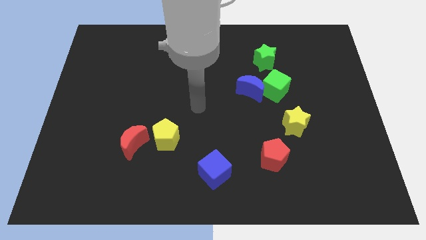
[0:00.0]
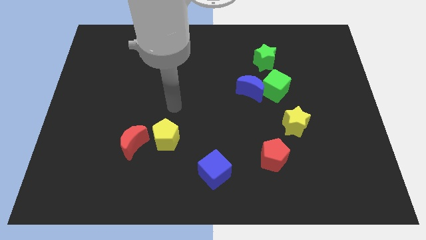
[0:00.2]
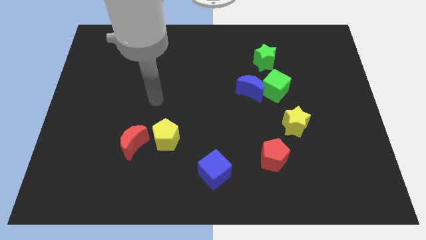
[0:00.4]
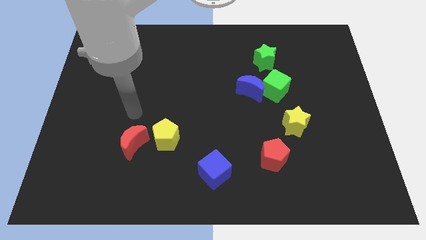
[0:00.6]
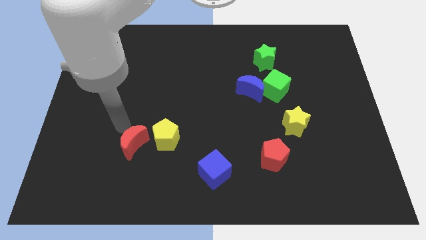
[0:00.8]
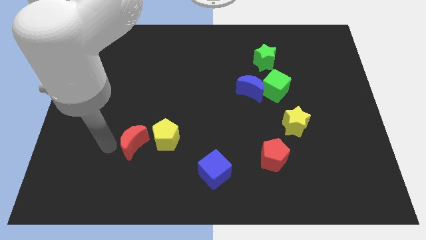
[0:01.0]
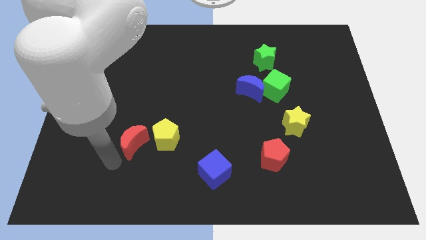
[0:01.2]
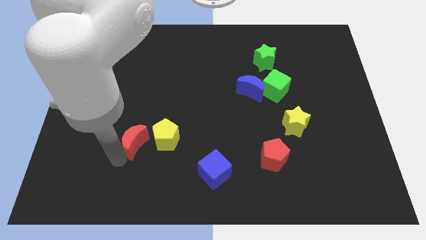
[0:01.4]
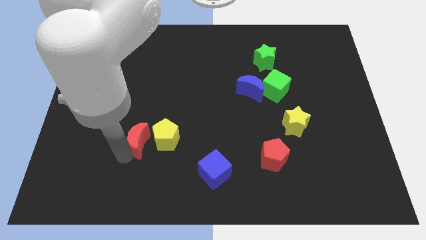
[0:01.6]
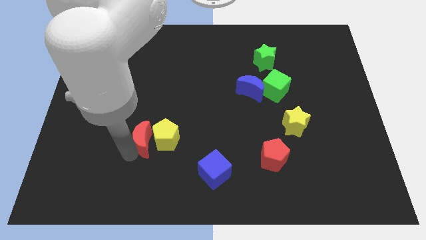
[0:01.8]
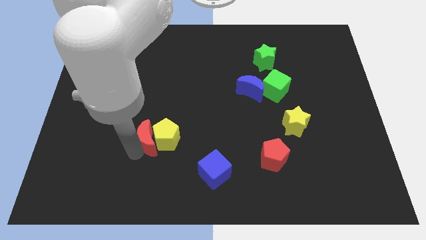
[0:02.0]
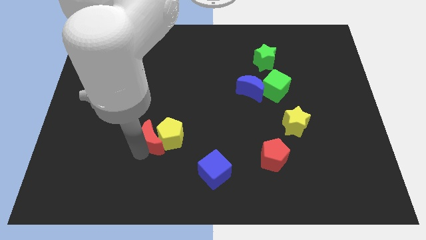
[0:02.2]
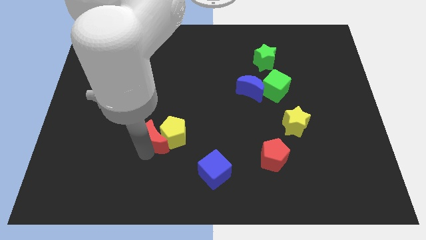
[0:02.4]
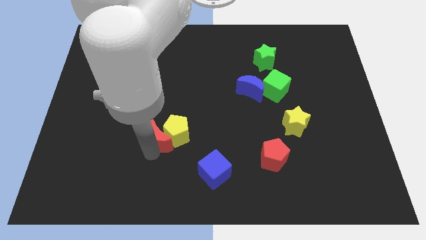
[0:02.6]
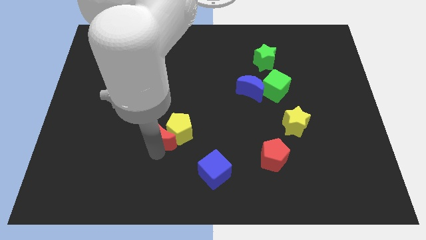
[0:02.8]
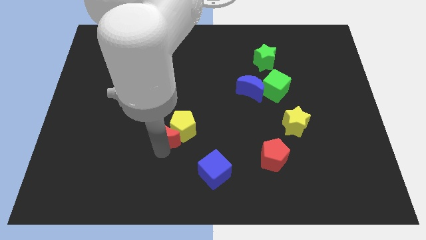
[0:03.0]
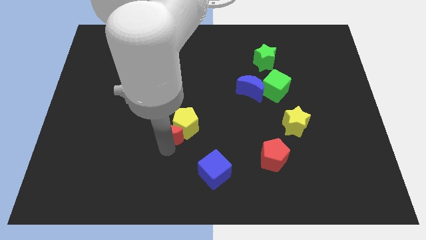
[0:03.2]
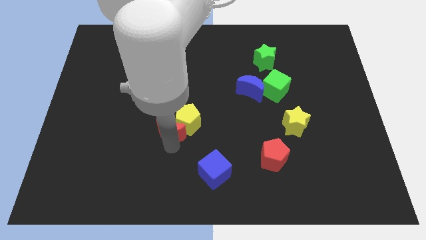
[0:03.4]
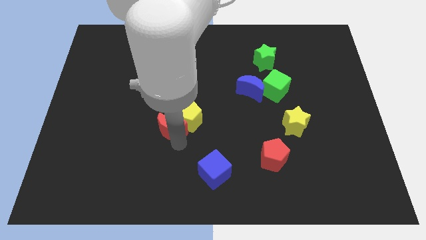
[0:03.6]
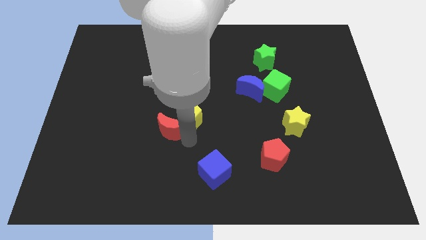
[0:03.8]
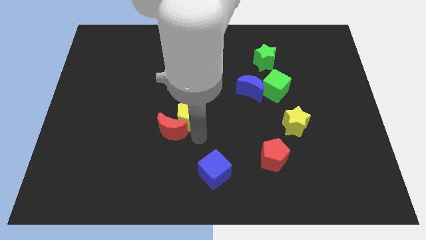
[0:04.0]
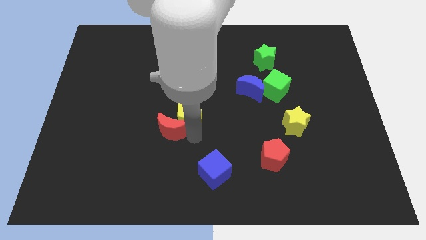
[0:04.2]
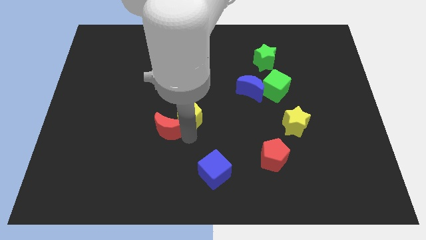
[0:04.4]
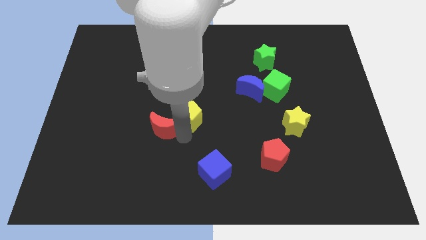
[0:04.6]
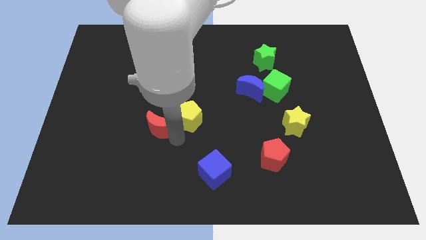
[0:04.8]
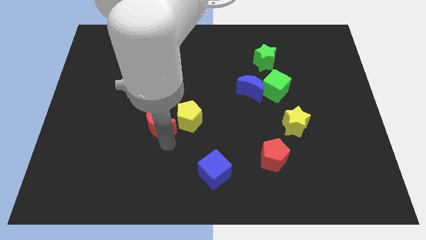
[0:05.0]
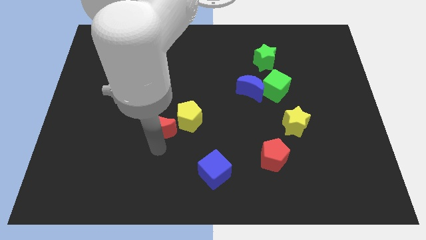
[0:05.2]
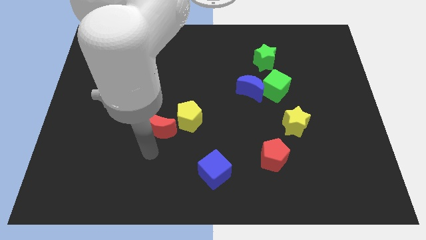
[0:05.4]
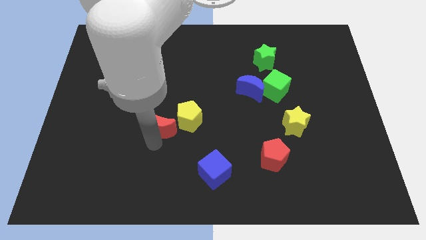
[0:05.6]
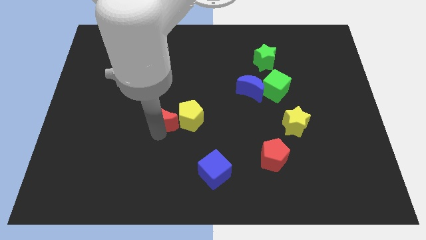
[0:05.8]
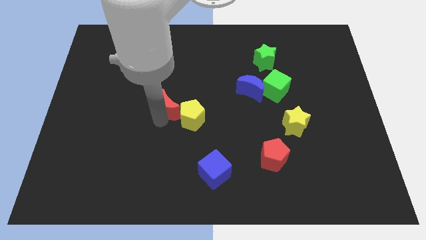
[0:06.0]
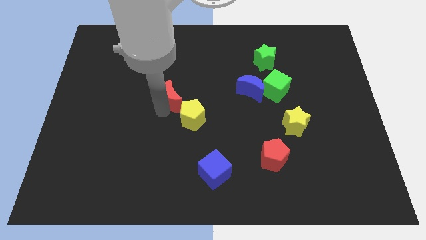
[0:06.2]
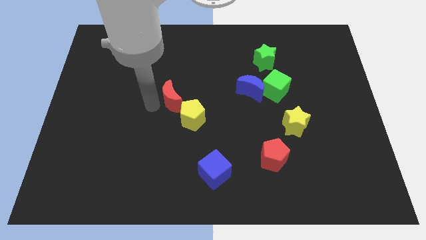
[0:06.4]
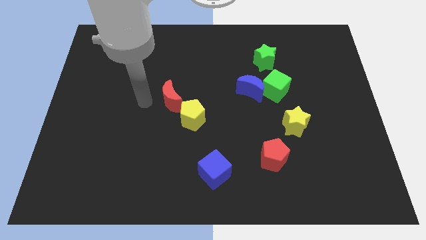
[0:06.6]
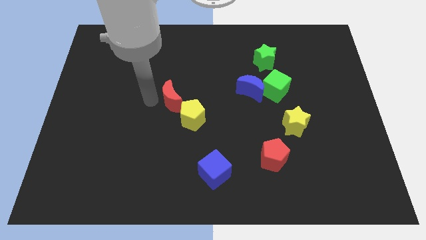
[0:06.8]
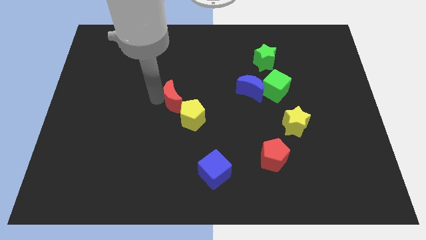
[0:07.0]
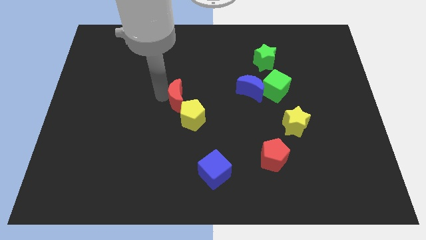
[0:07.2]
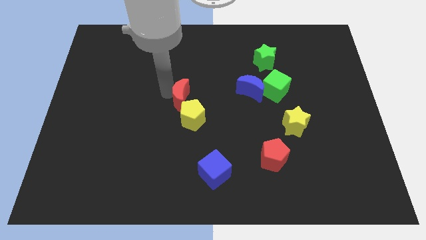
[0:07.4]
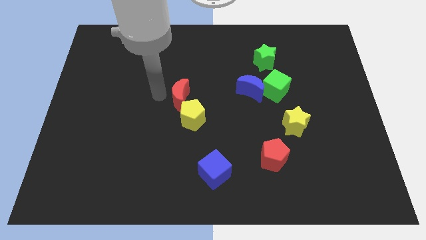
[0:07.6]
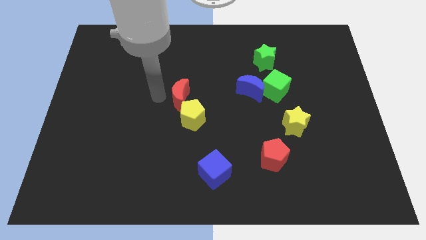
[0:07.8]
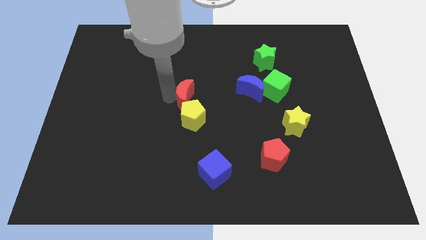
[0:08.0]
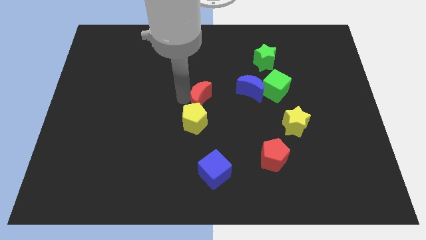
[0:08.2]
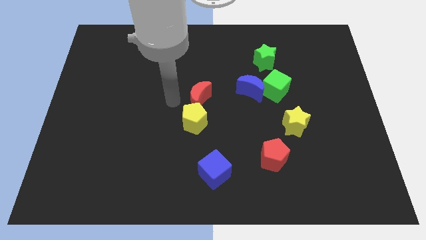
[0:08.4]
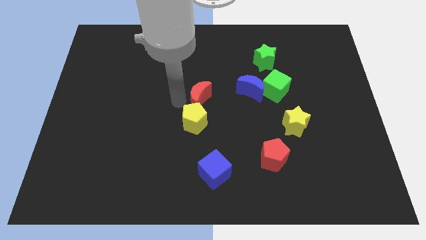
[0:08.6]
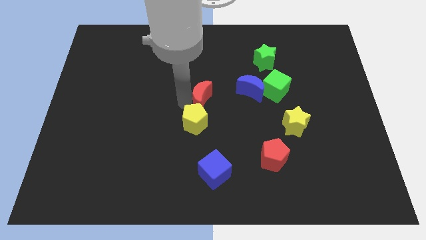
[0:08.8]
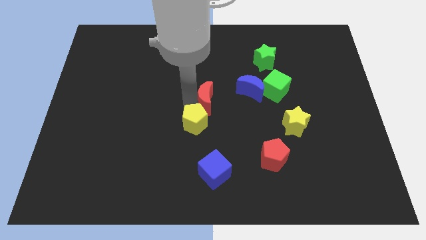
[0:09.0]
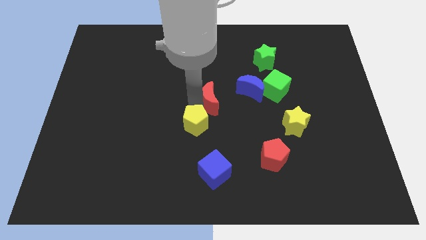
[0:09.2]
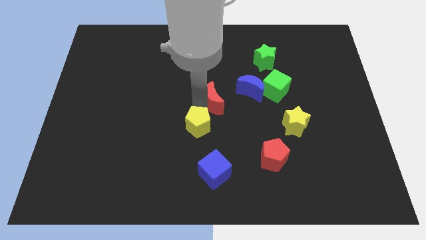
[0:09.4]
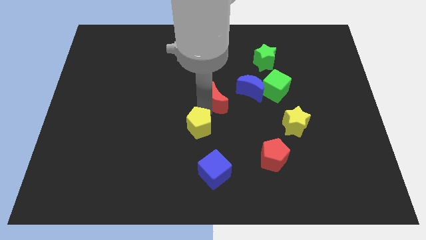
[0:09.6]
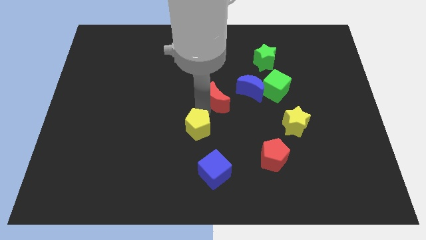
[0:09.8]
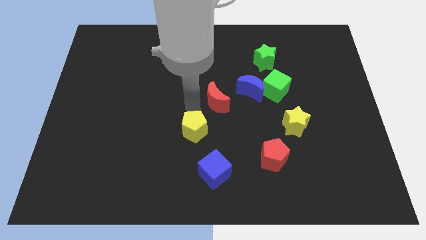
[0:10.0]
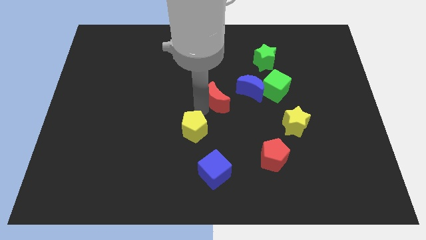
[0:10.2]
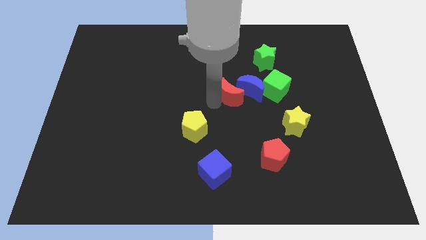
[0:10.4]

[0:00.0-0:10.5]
move the red moon close to the blue moon

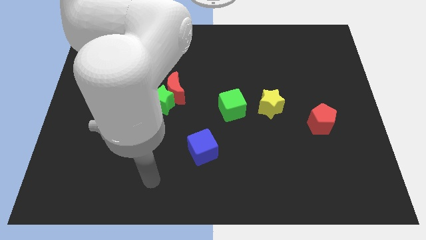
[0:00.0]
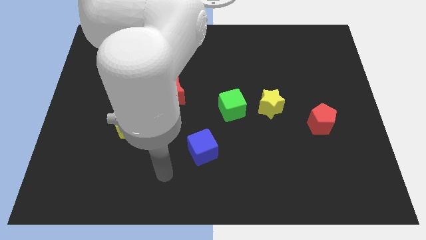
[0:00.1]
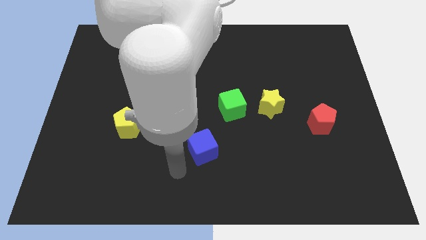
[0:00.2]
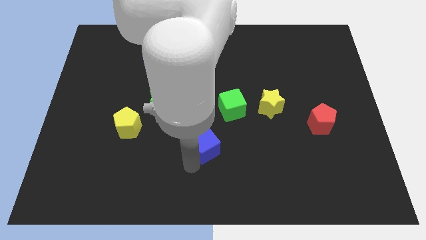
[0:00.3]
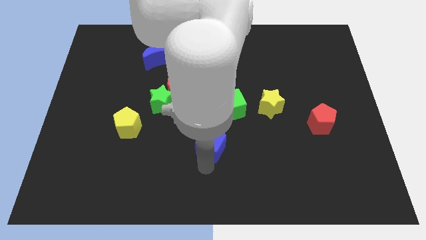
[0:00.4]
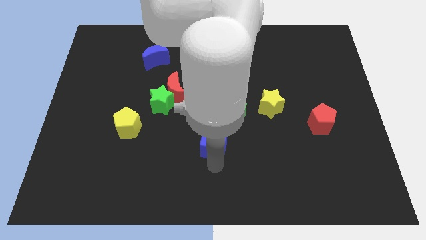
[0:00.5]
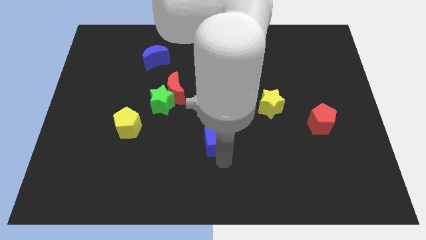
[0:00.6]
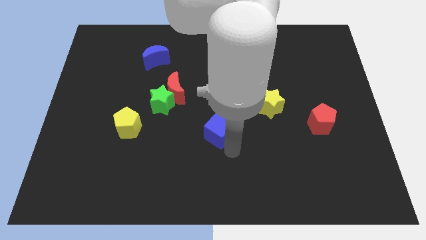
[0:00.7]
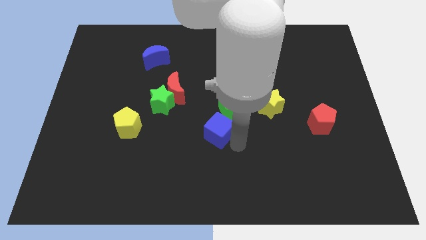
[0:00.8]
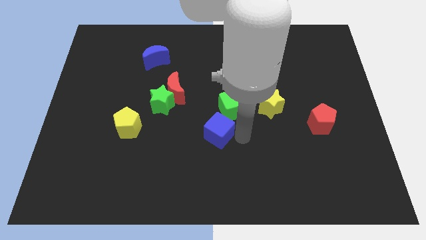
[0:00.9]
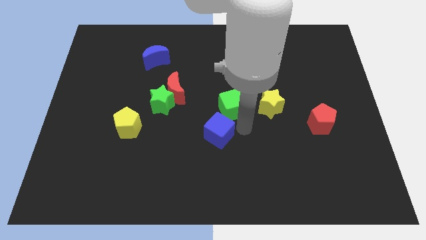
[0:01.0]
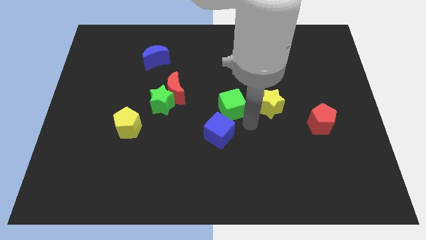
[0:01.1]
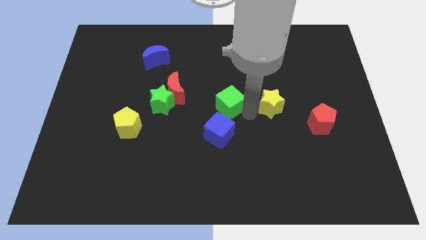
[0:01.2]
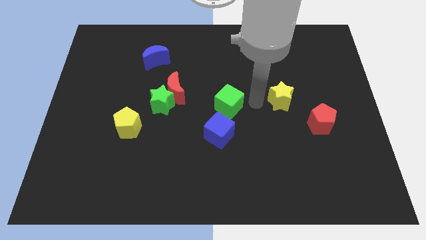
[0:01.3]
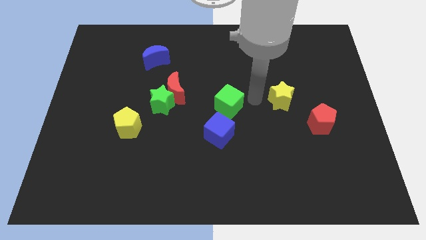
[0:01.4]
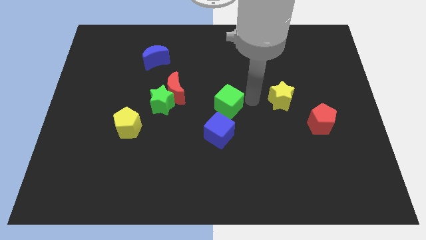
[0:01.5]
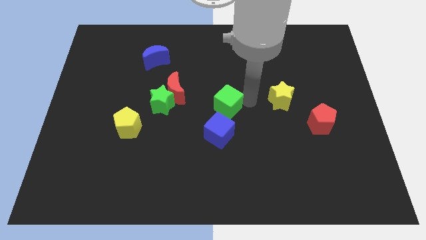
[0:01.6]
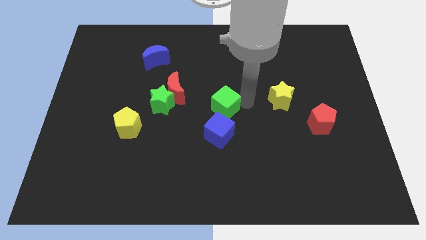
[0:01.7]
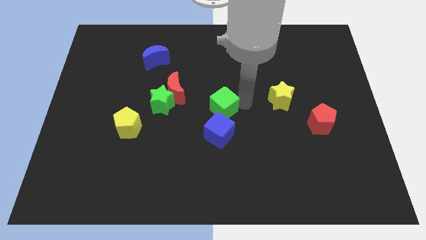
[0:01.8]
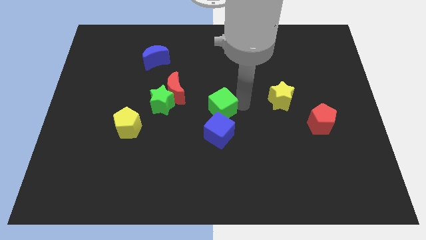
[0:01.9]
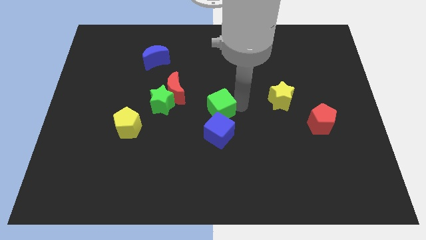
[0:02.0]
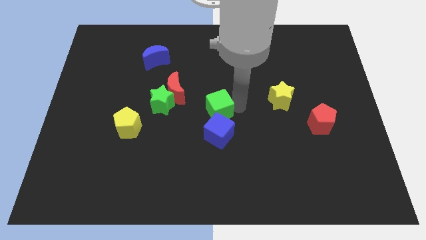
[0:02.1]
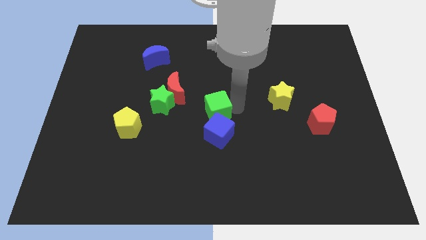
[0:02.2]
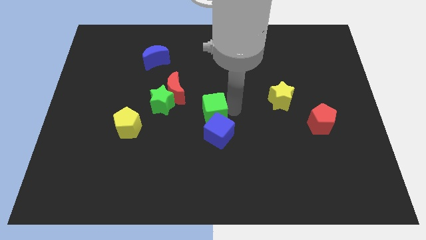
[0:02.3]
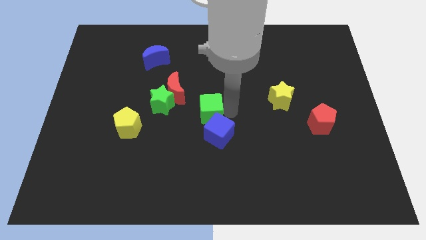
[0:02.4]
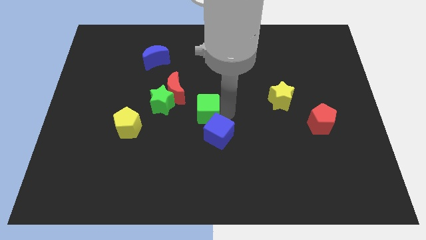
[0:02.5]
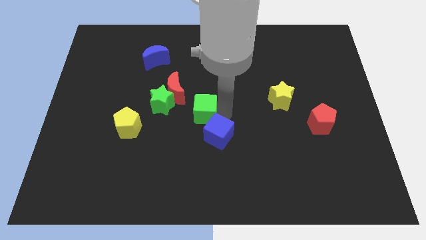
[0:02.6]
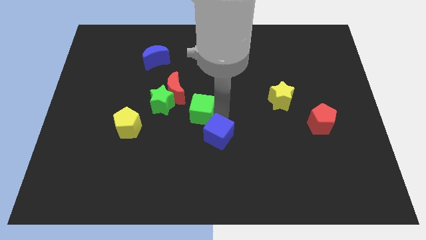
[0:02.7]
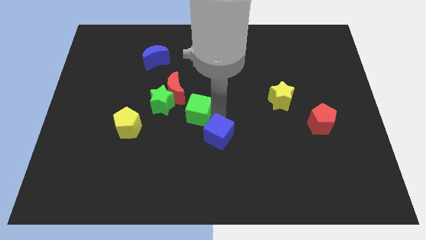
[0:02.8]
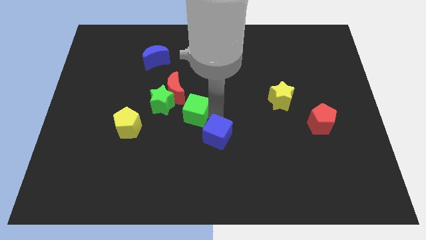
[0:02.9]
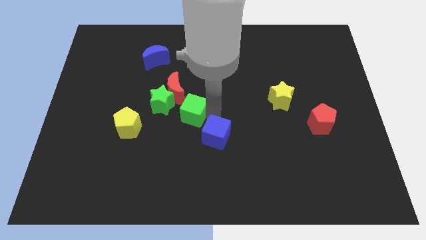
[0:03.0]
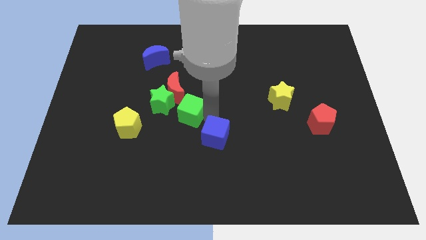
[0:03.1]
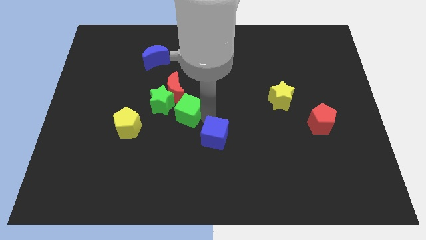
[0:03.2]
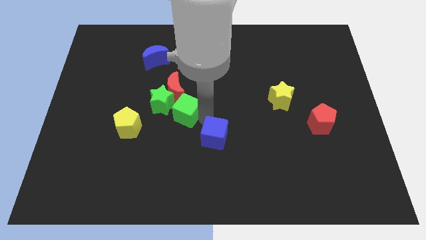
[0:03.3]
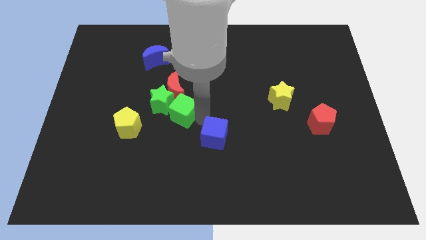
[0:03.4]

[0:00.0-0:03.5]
move the green cube to the green star
